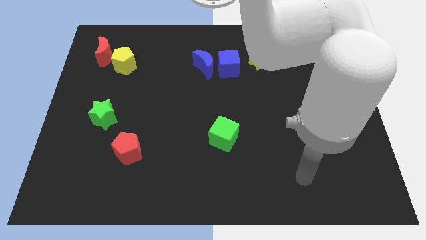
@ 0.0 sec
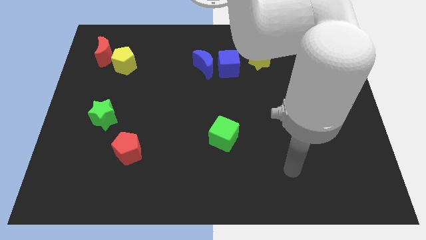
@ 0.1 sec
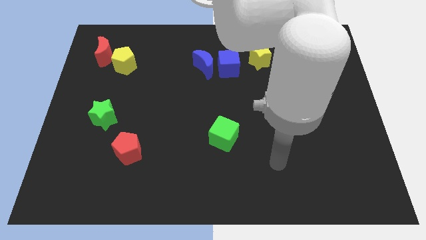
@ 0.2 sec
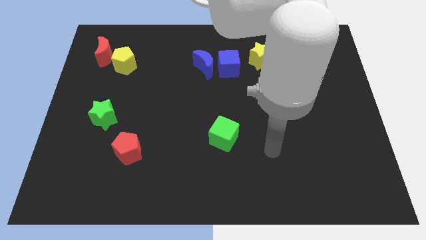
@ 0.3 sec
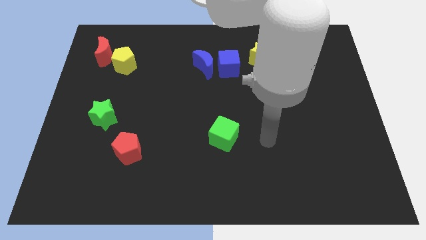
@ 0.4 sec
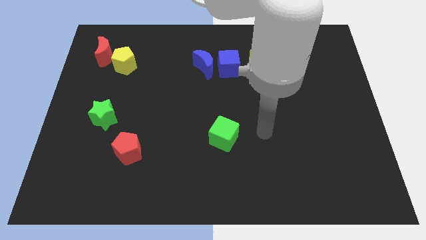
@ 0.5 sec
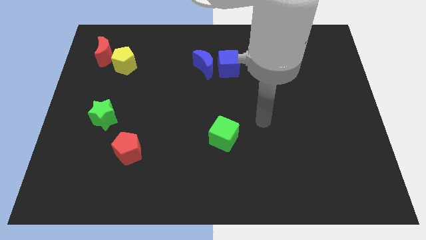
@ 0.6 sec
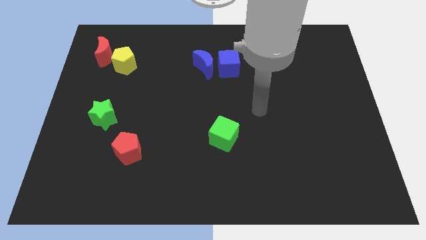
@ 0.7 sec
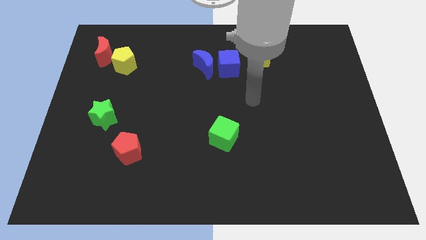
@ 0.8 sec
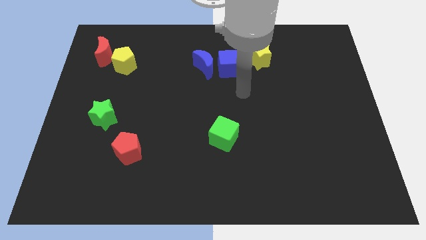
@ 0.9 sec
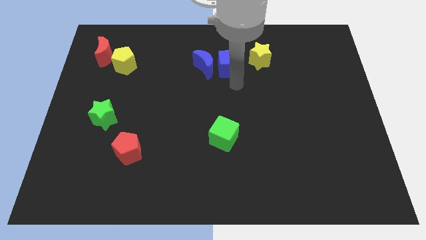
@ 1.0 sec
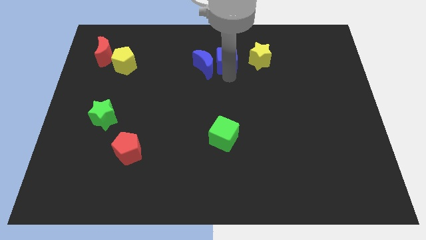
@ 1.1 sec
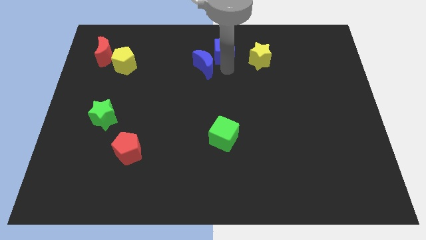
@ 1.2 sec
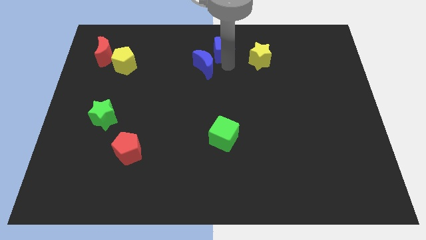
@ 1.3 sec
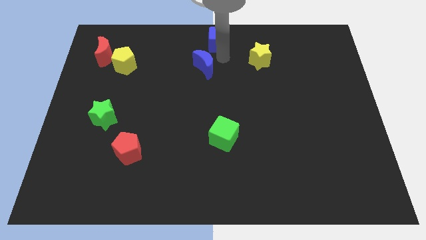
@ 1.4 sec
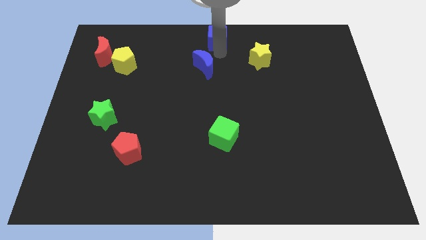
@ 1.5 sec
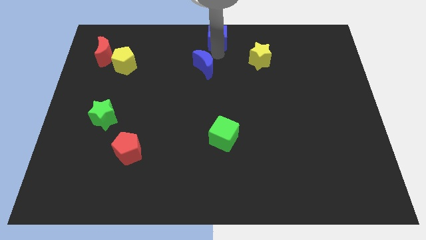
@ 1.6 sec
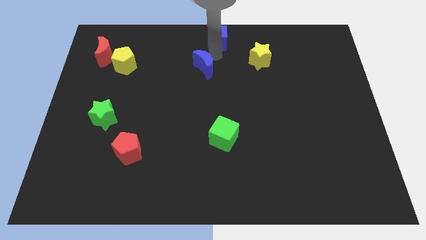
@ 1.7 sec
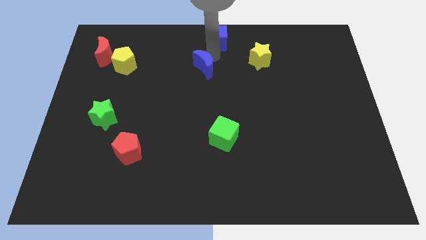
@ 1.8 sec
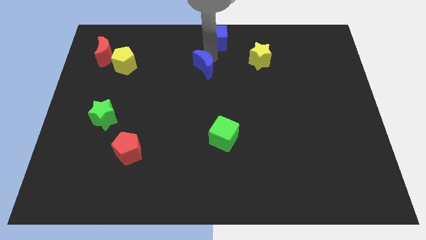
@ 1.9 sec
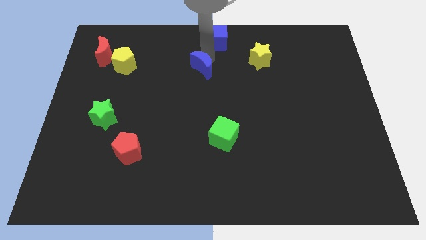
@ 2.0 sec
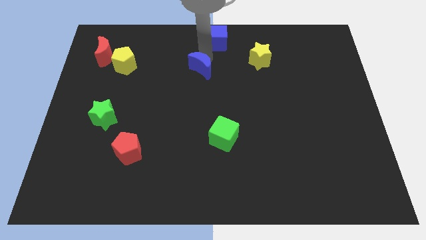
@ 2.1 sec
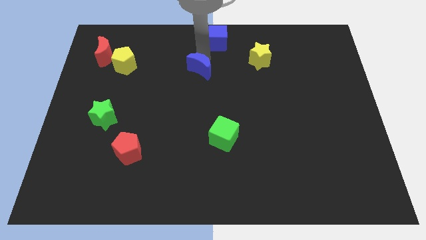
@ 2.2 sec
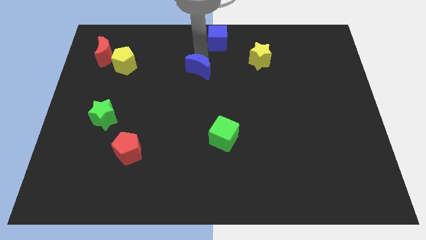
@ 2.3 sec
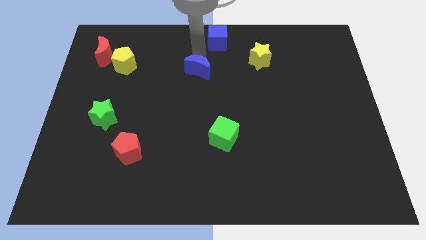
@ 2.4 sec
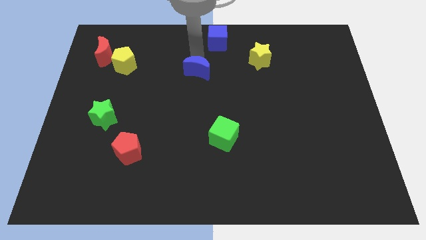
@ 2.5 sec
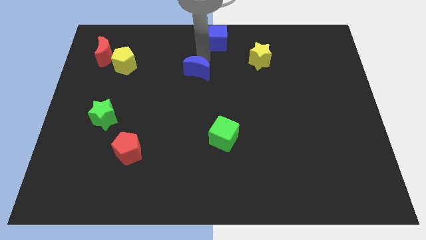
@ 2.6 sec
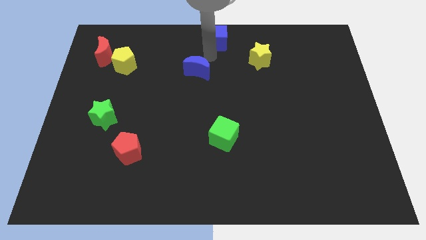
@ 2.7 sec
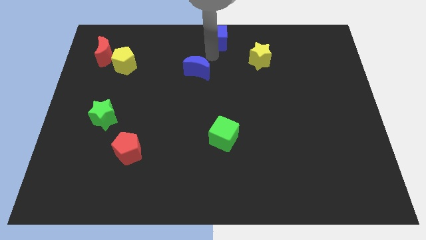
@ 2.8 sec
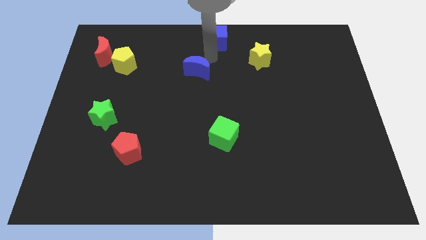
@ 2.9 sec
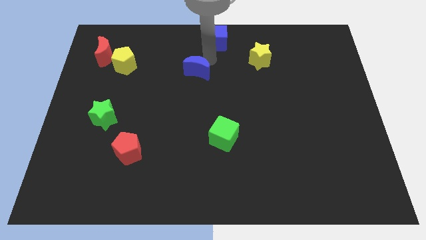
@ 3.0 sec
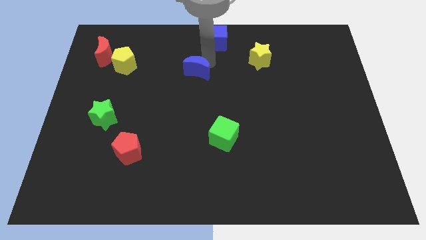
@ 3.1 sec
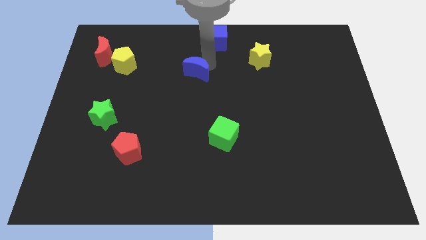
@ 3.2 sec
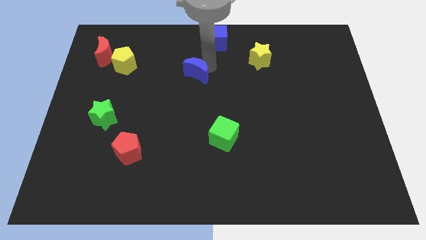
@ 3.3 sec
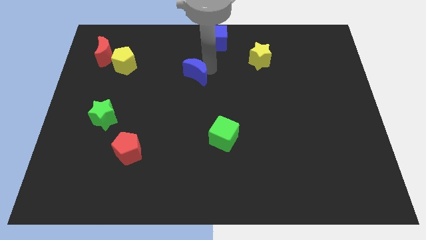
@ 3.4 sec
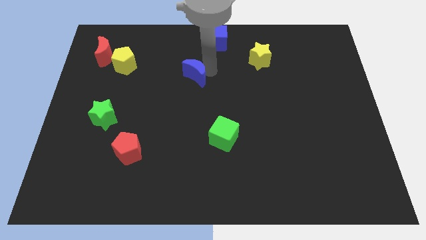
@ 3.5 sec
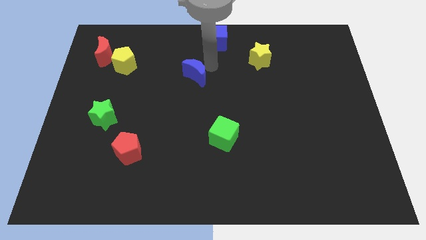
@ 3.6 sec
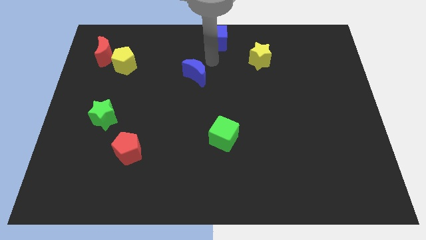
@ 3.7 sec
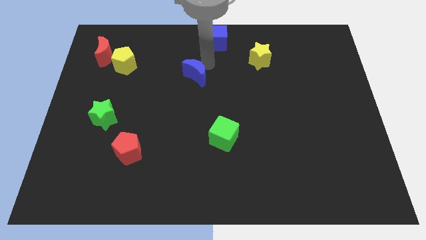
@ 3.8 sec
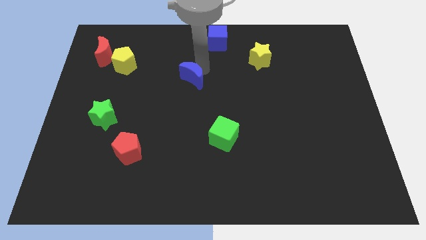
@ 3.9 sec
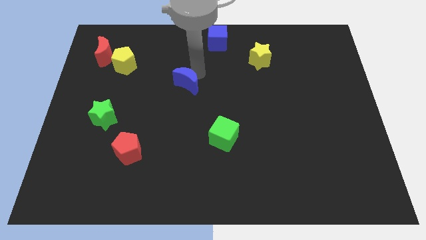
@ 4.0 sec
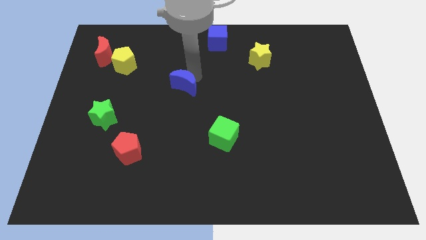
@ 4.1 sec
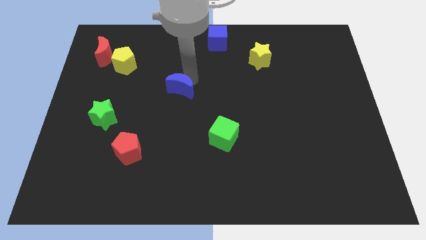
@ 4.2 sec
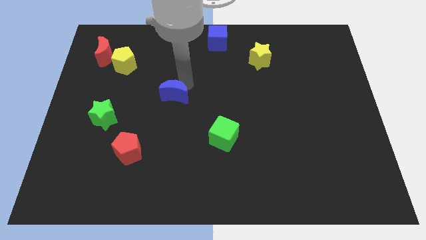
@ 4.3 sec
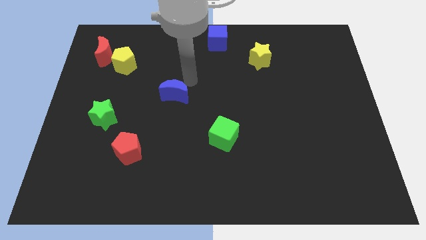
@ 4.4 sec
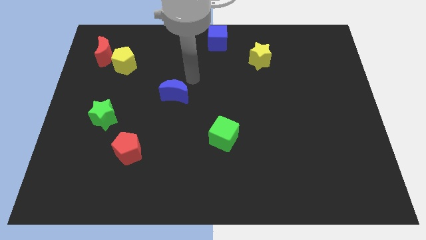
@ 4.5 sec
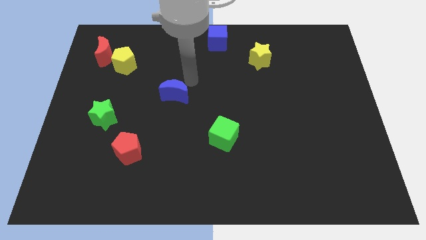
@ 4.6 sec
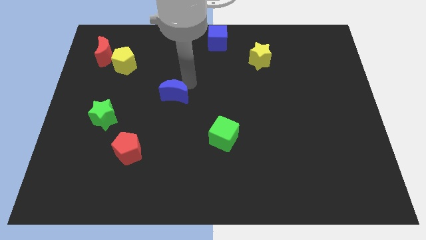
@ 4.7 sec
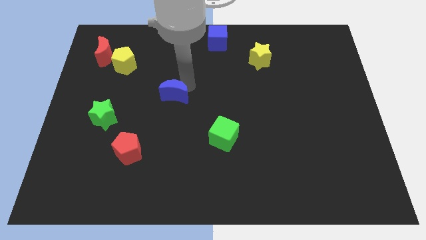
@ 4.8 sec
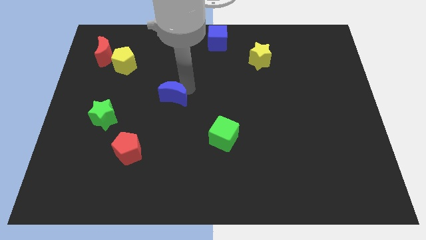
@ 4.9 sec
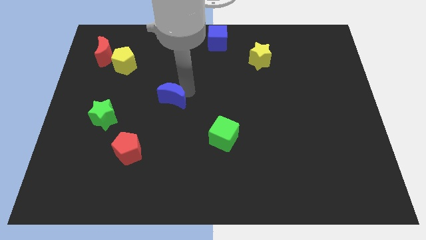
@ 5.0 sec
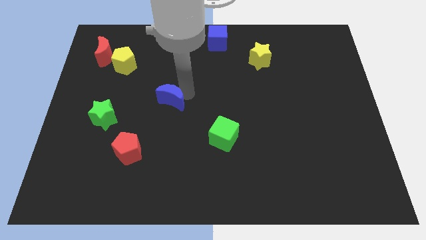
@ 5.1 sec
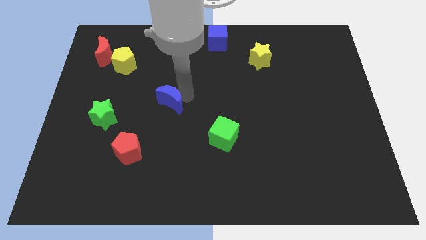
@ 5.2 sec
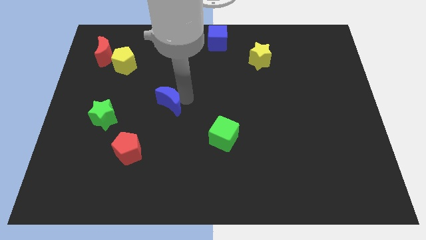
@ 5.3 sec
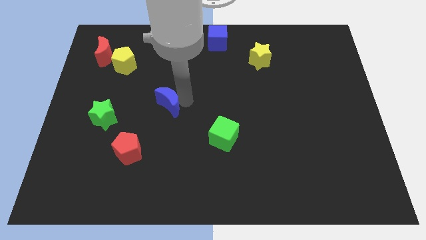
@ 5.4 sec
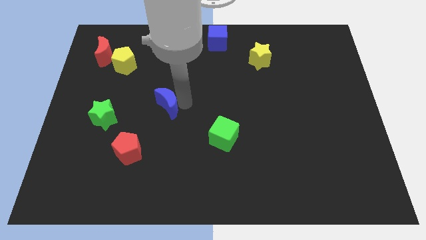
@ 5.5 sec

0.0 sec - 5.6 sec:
move the blue moon right of the green star

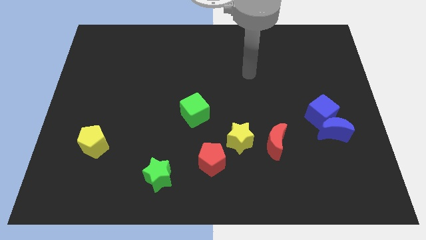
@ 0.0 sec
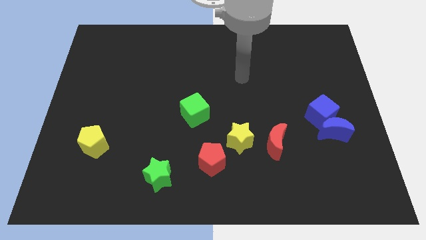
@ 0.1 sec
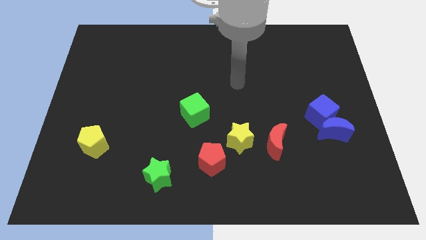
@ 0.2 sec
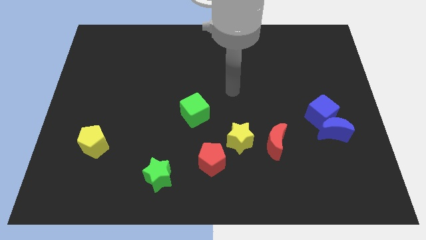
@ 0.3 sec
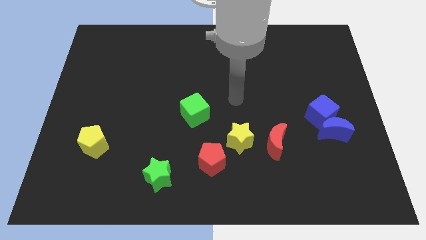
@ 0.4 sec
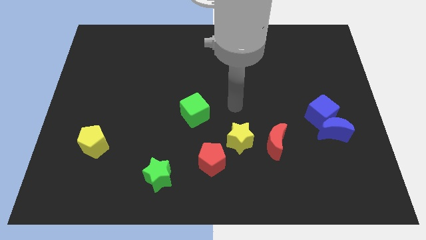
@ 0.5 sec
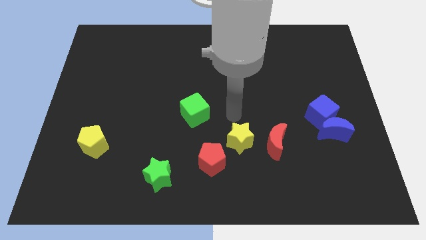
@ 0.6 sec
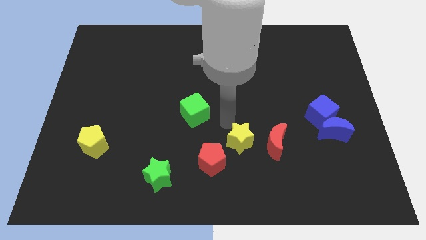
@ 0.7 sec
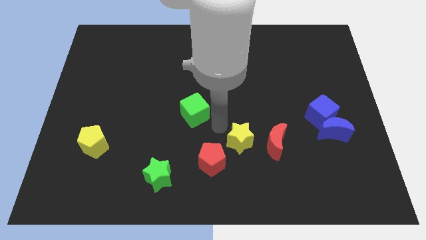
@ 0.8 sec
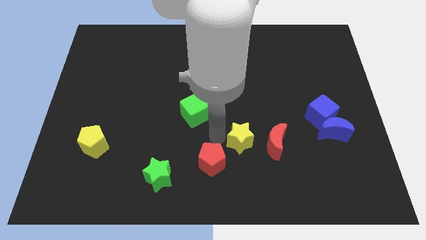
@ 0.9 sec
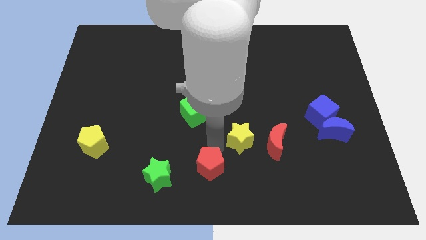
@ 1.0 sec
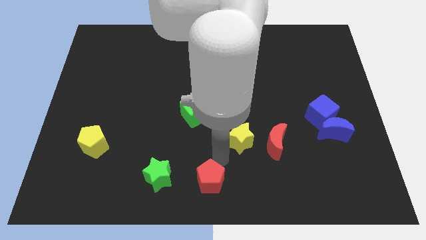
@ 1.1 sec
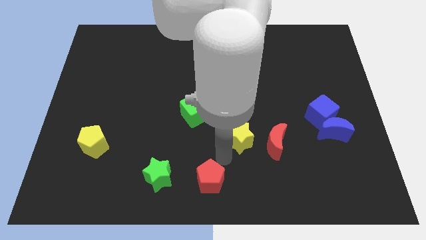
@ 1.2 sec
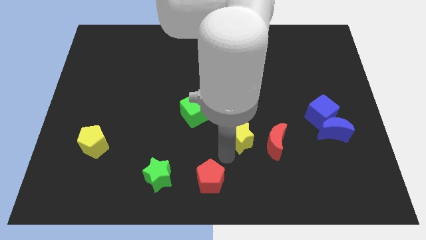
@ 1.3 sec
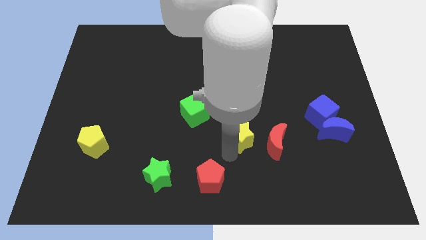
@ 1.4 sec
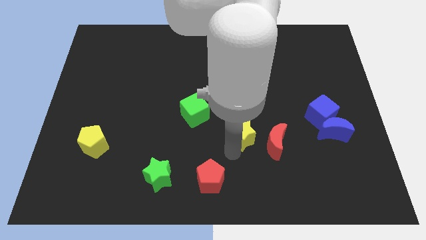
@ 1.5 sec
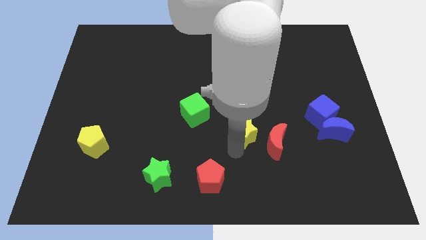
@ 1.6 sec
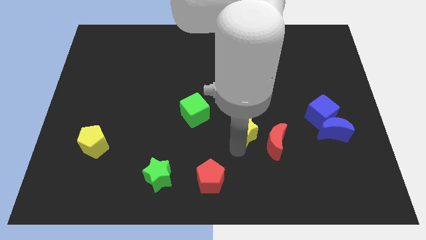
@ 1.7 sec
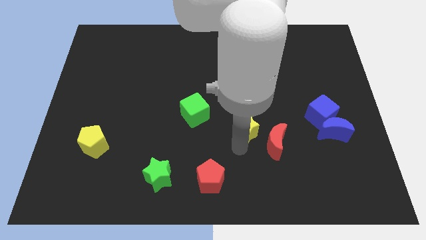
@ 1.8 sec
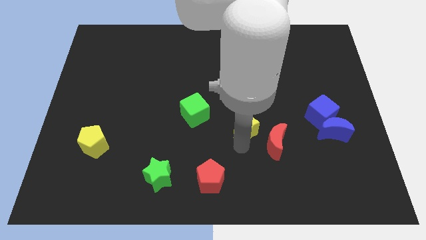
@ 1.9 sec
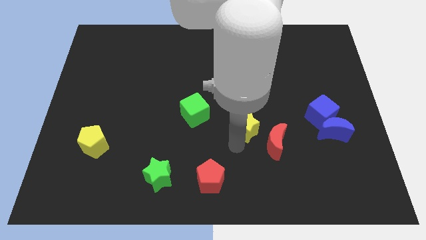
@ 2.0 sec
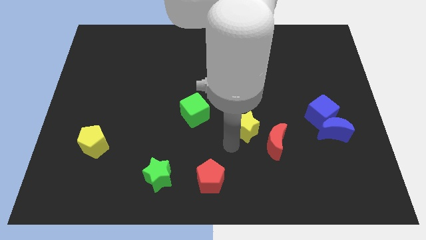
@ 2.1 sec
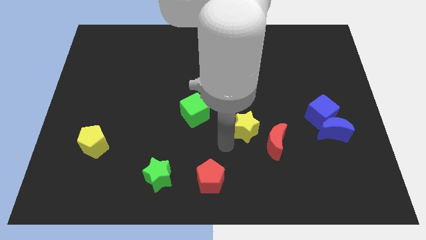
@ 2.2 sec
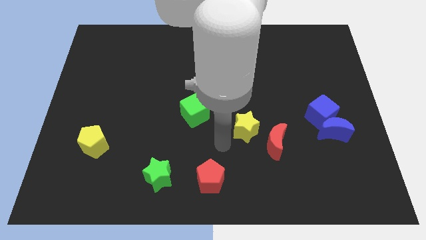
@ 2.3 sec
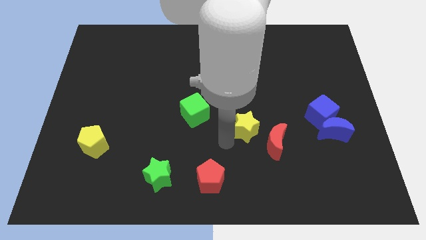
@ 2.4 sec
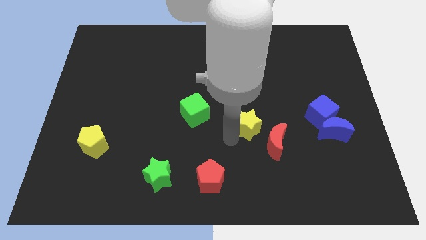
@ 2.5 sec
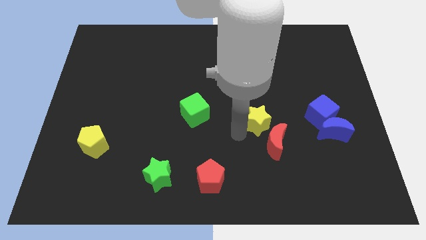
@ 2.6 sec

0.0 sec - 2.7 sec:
push the yellow star above the red moon

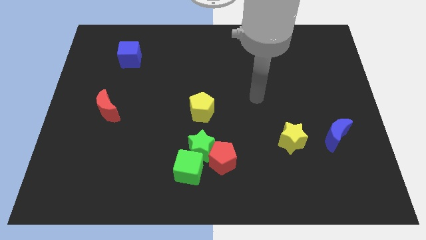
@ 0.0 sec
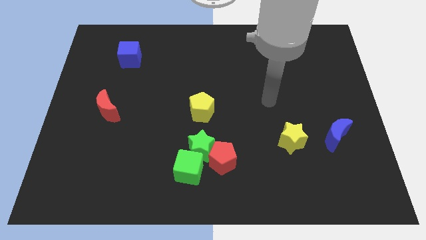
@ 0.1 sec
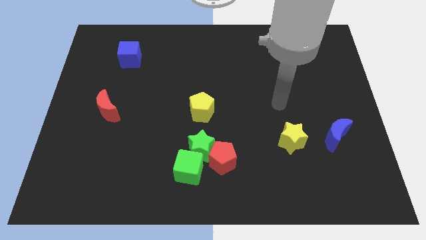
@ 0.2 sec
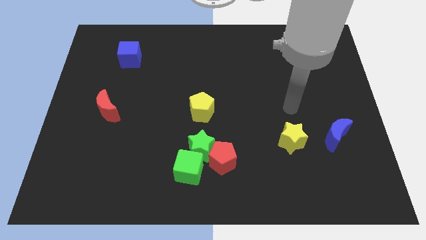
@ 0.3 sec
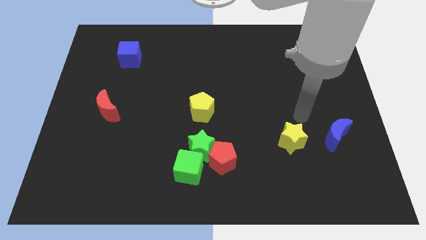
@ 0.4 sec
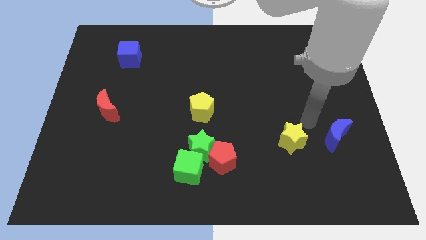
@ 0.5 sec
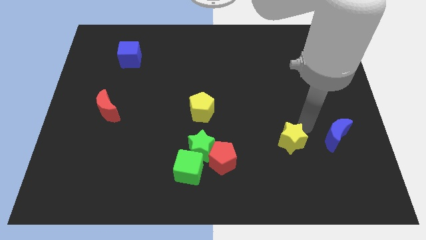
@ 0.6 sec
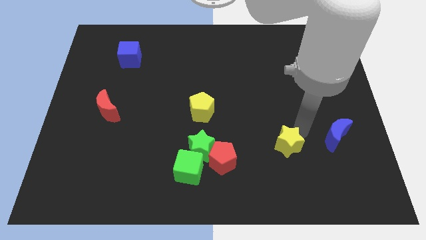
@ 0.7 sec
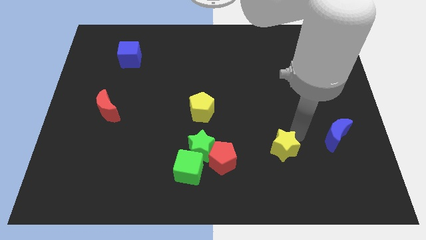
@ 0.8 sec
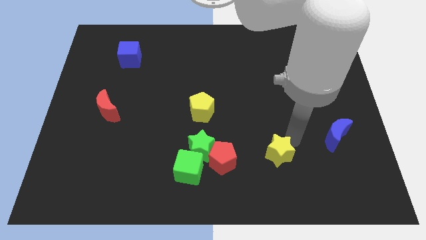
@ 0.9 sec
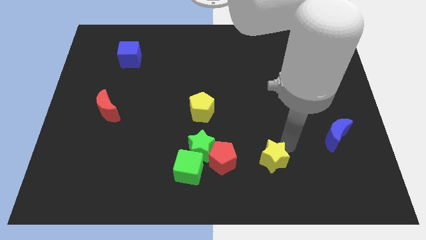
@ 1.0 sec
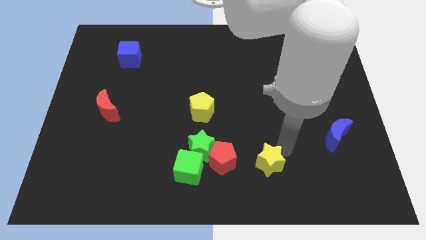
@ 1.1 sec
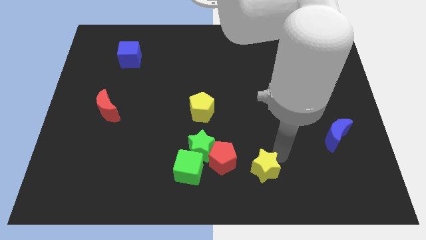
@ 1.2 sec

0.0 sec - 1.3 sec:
move the yellow star to the right side of the green cube
